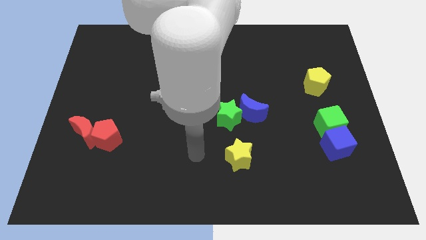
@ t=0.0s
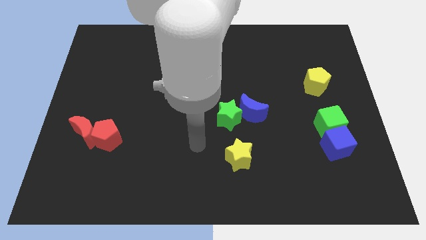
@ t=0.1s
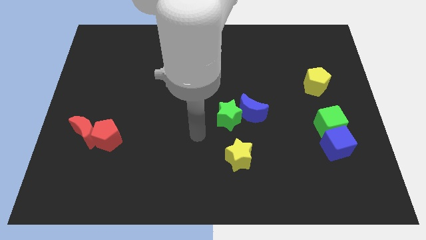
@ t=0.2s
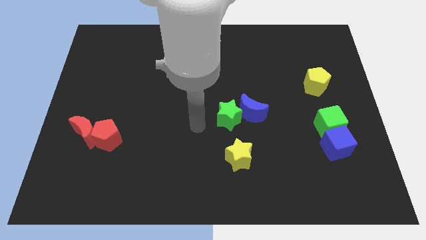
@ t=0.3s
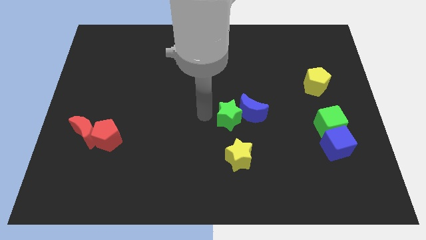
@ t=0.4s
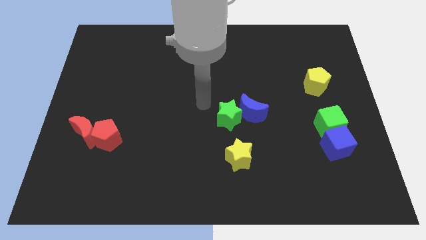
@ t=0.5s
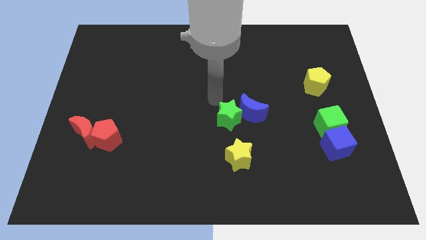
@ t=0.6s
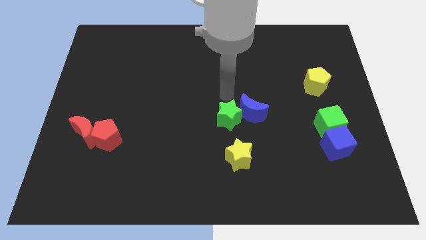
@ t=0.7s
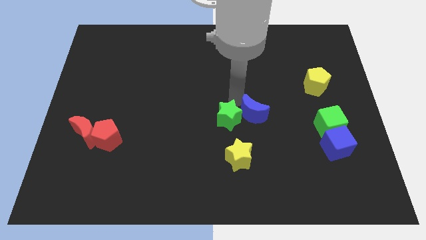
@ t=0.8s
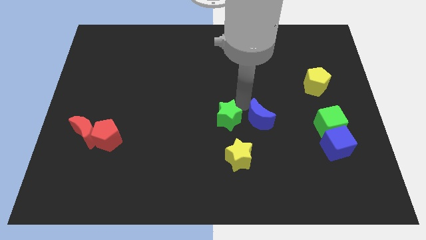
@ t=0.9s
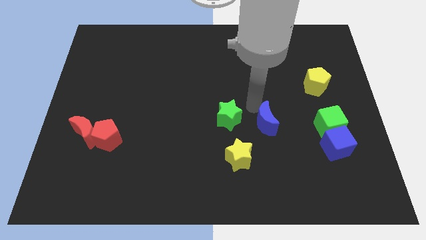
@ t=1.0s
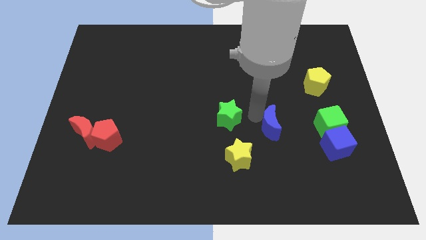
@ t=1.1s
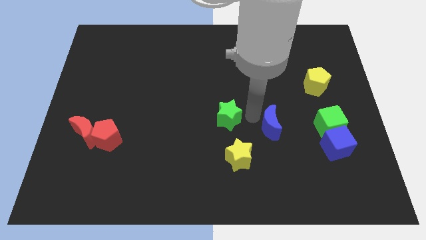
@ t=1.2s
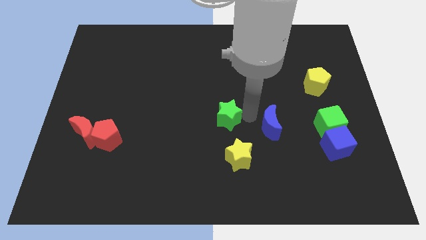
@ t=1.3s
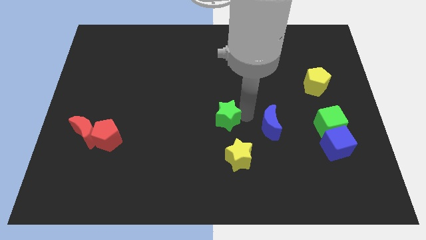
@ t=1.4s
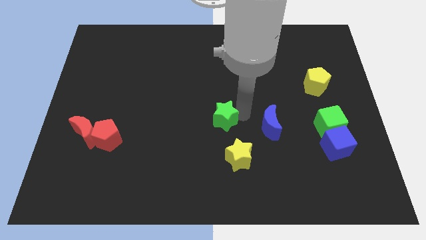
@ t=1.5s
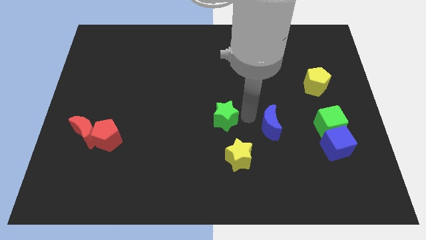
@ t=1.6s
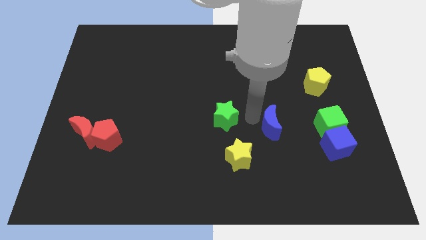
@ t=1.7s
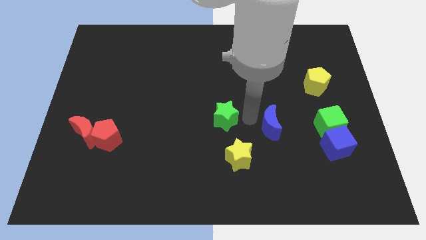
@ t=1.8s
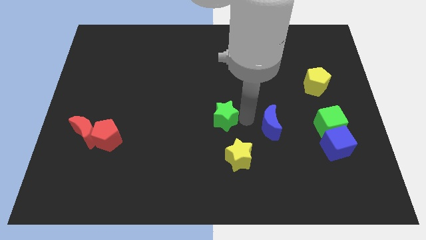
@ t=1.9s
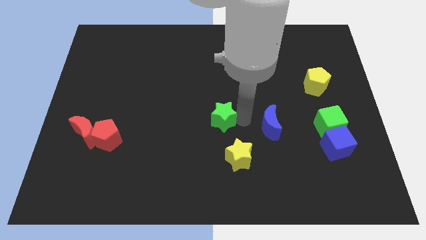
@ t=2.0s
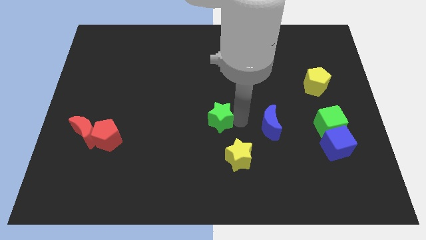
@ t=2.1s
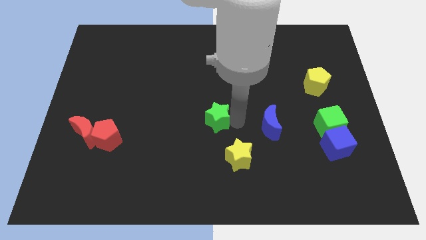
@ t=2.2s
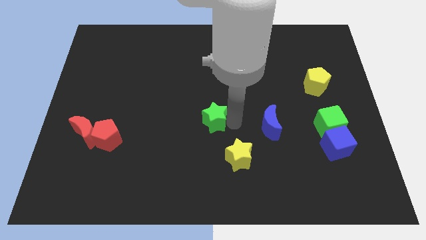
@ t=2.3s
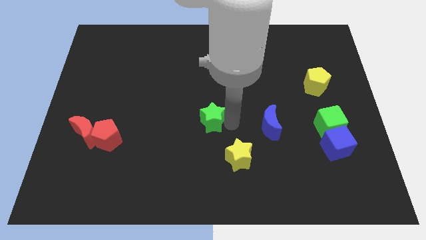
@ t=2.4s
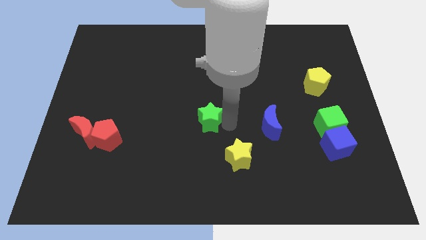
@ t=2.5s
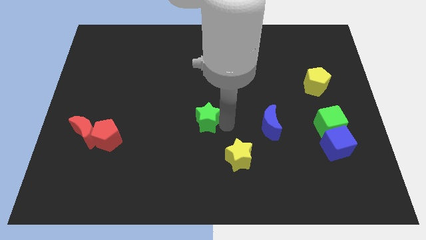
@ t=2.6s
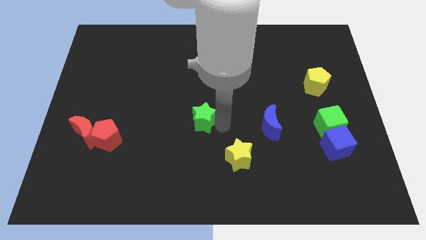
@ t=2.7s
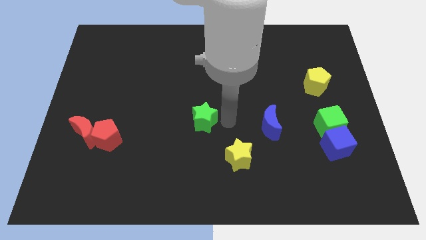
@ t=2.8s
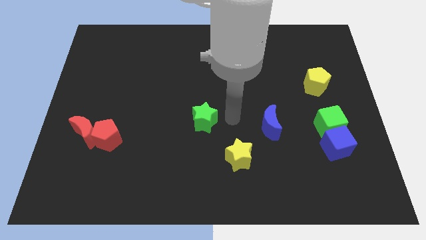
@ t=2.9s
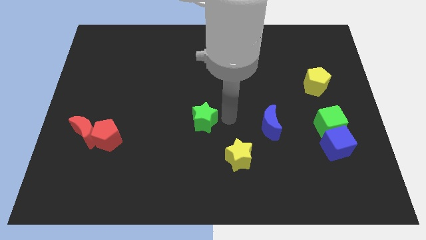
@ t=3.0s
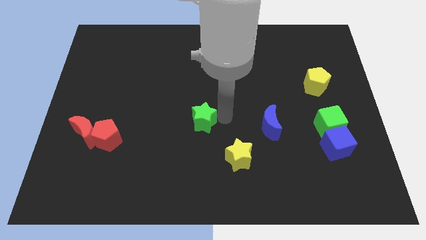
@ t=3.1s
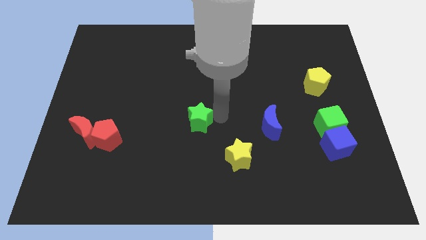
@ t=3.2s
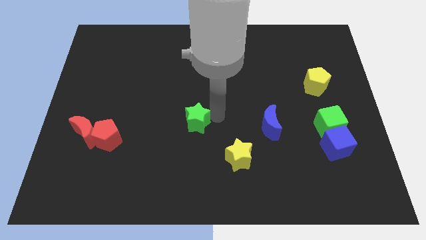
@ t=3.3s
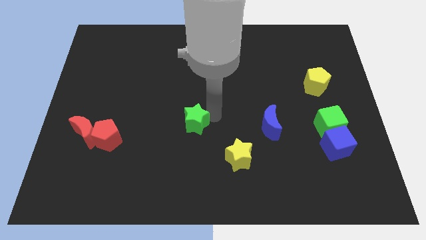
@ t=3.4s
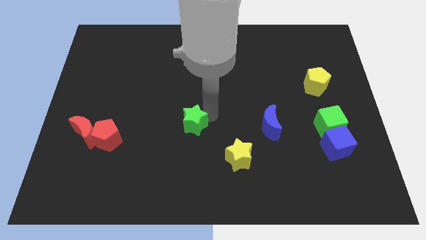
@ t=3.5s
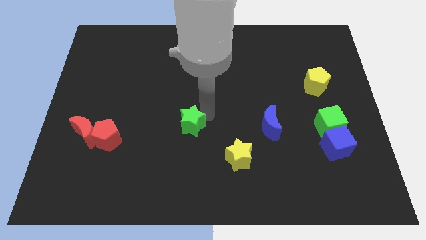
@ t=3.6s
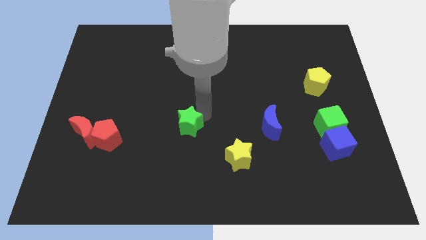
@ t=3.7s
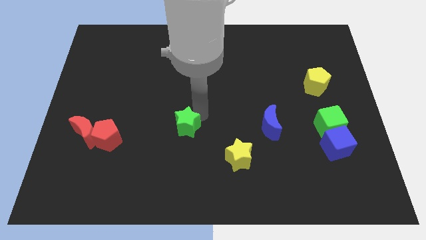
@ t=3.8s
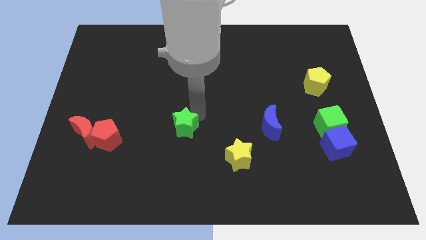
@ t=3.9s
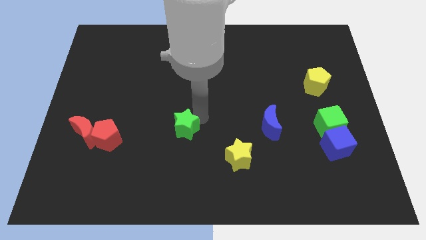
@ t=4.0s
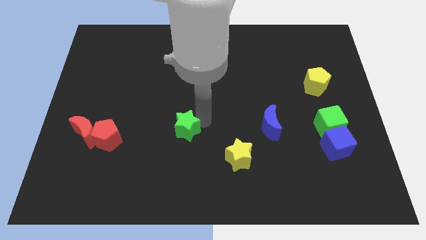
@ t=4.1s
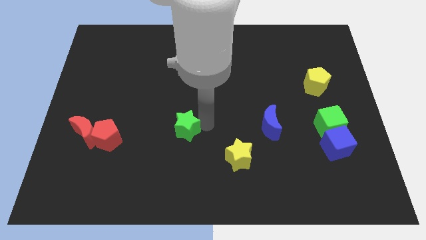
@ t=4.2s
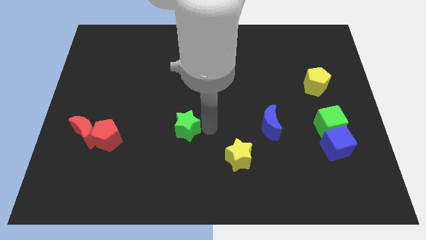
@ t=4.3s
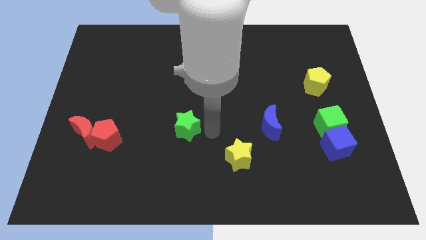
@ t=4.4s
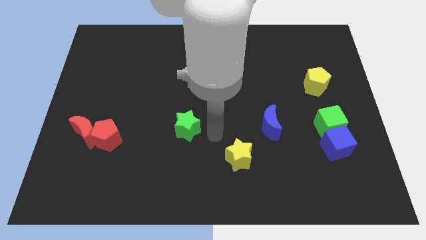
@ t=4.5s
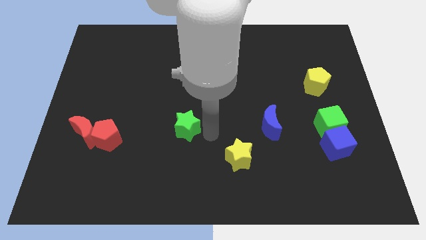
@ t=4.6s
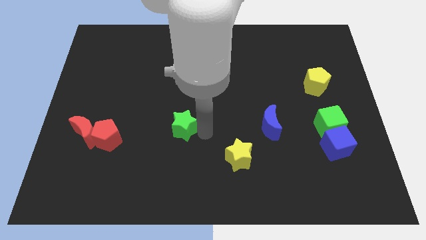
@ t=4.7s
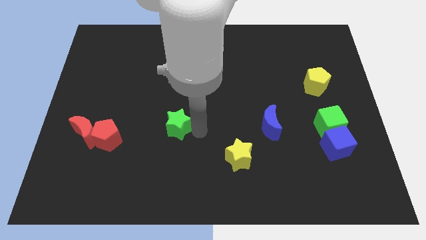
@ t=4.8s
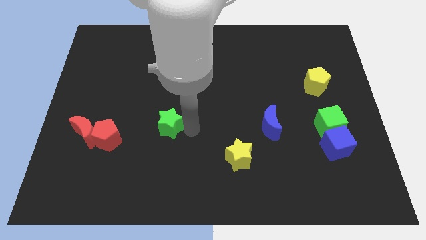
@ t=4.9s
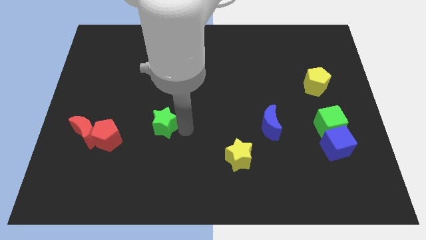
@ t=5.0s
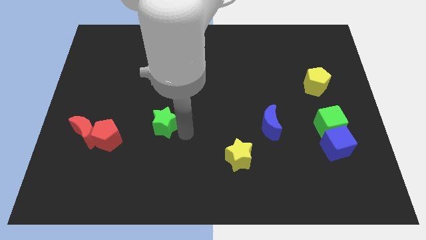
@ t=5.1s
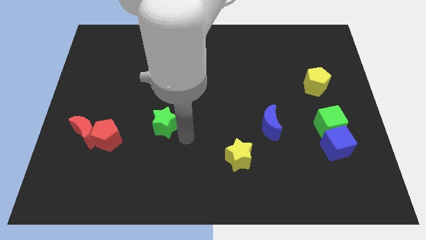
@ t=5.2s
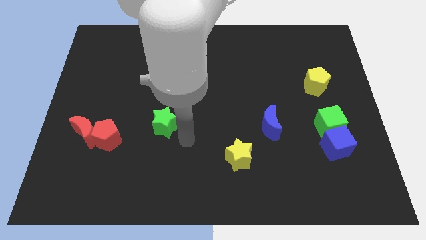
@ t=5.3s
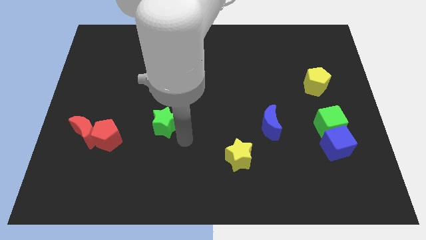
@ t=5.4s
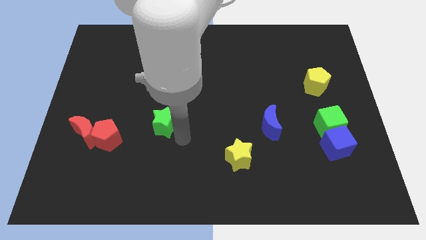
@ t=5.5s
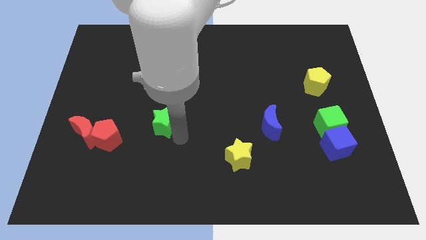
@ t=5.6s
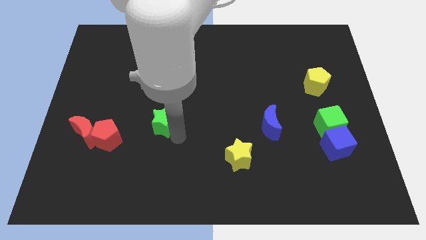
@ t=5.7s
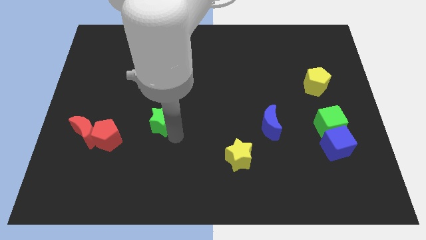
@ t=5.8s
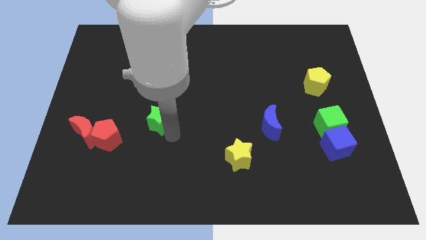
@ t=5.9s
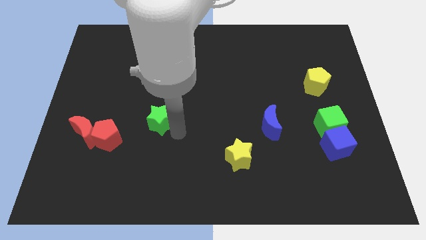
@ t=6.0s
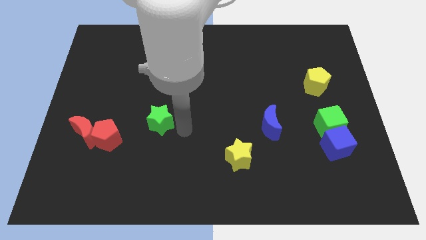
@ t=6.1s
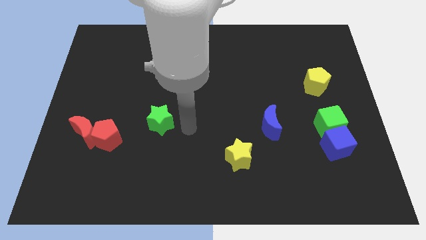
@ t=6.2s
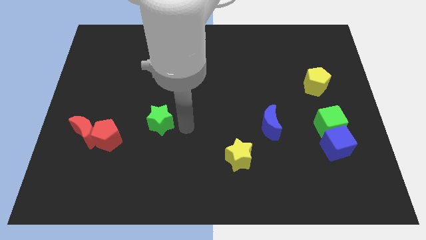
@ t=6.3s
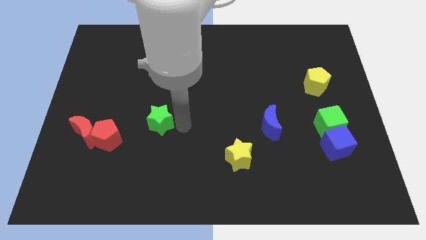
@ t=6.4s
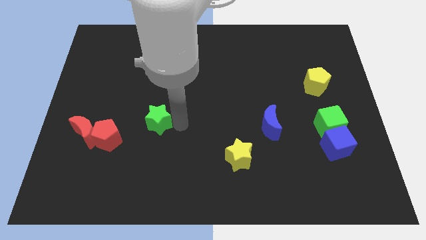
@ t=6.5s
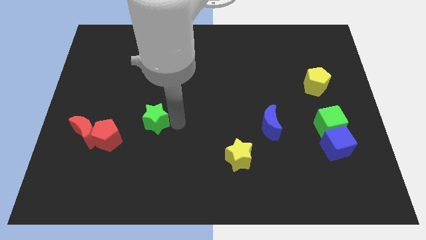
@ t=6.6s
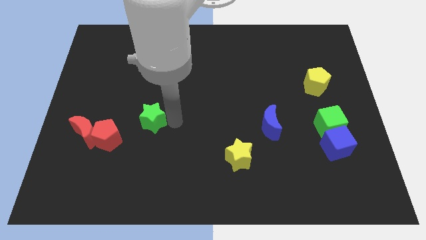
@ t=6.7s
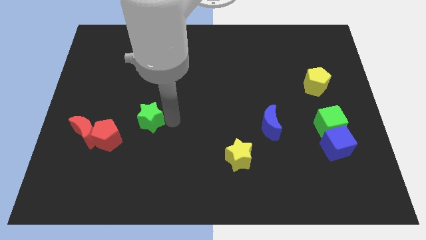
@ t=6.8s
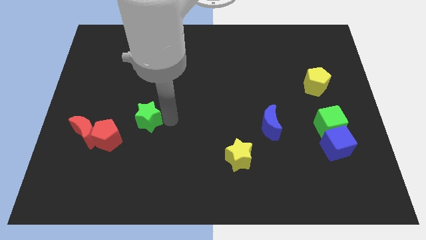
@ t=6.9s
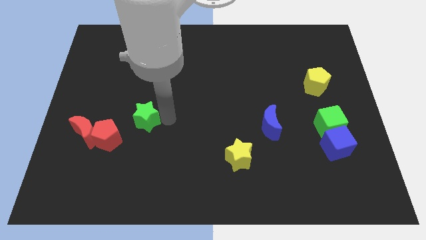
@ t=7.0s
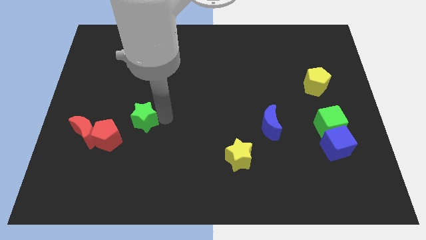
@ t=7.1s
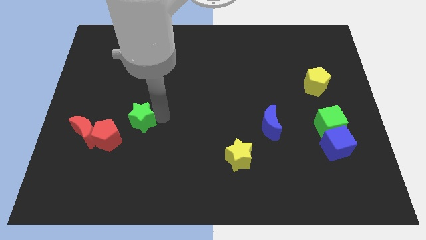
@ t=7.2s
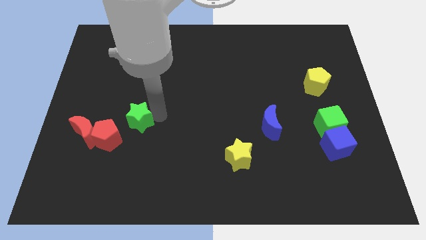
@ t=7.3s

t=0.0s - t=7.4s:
slide the green star to the left

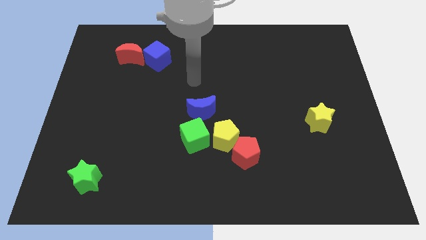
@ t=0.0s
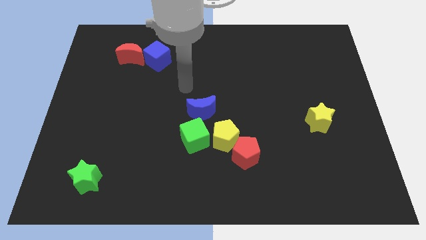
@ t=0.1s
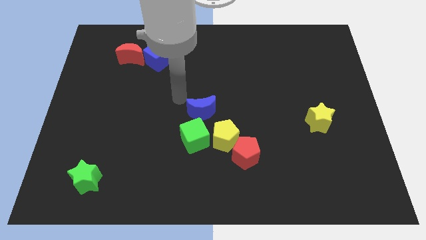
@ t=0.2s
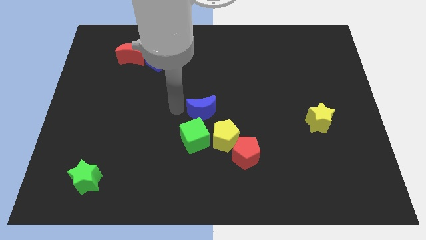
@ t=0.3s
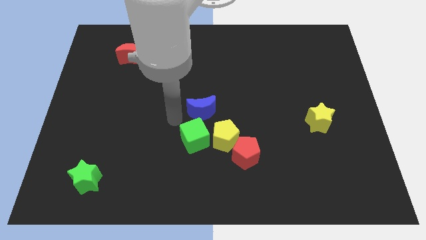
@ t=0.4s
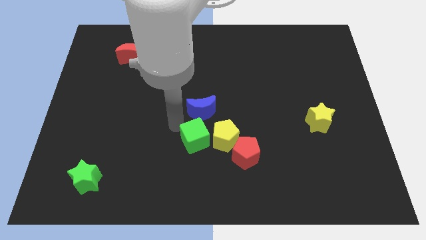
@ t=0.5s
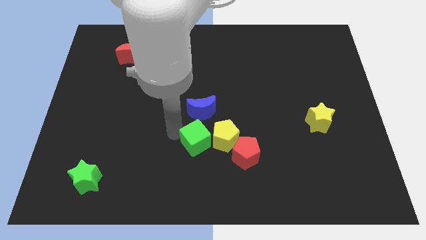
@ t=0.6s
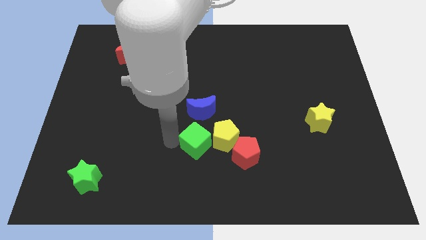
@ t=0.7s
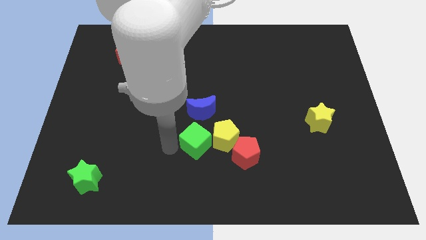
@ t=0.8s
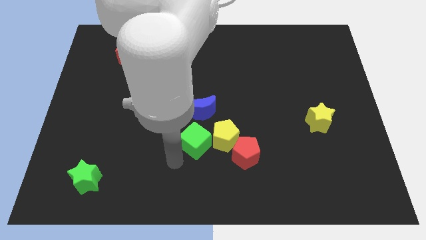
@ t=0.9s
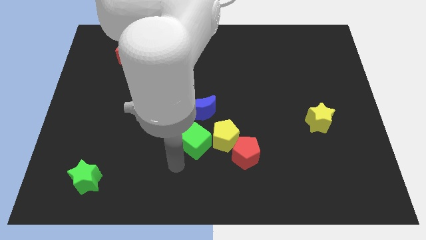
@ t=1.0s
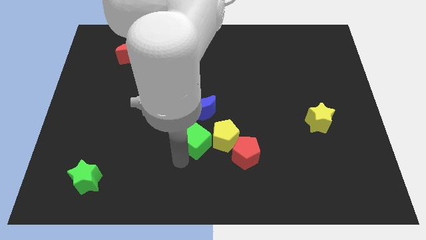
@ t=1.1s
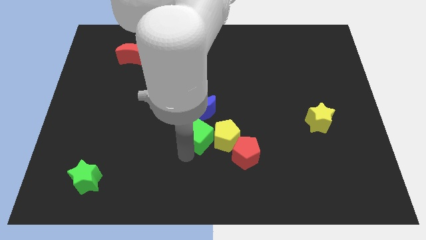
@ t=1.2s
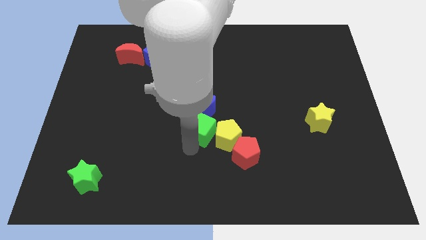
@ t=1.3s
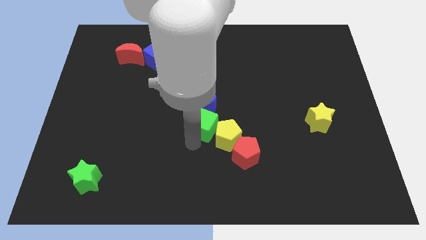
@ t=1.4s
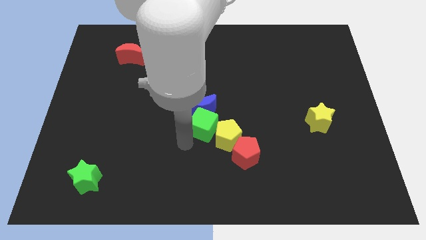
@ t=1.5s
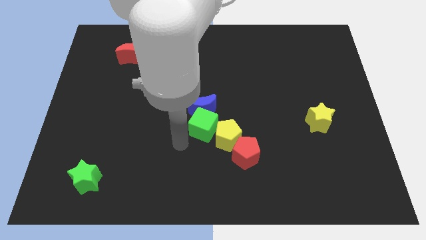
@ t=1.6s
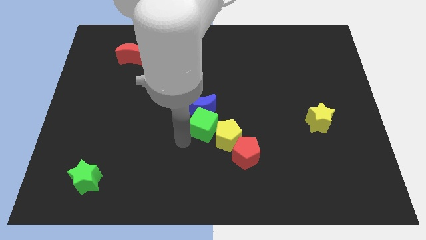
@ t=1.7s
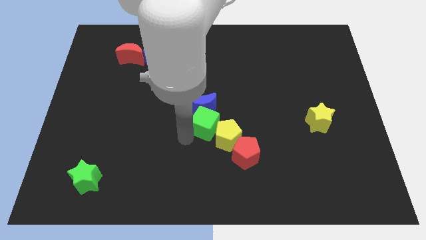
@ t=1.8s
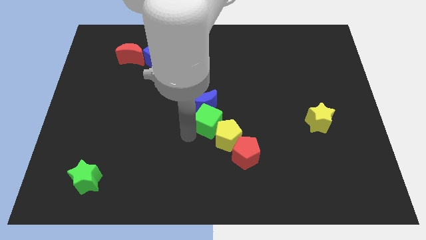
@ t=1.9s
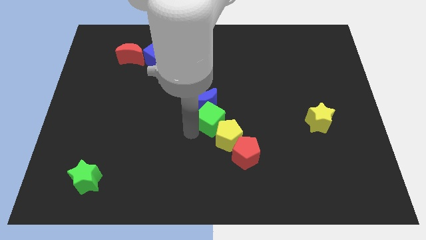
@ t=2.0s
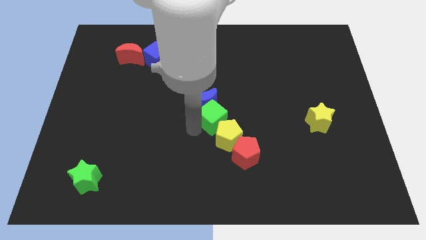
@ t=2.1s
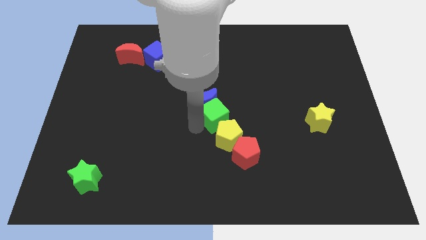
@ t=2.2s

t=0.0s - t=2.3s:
slide the green cube up and right diagonally a bit
